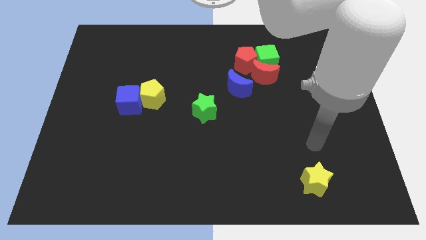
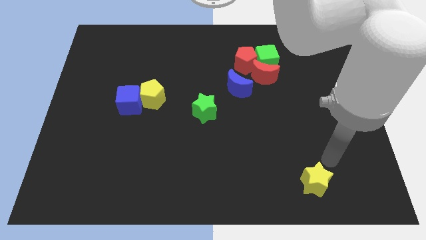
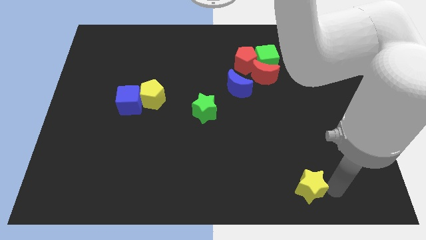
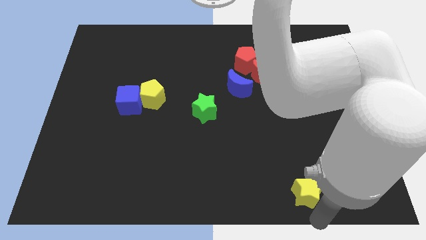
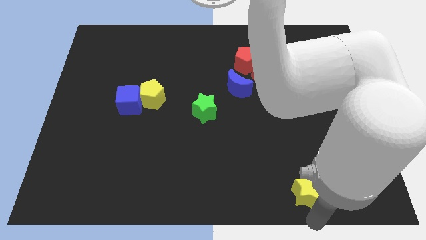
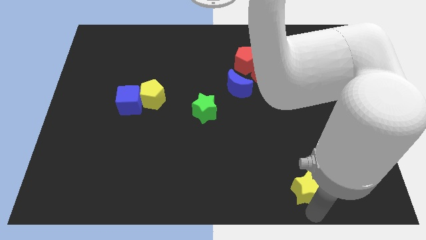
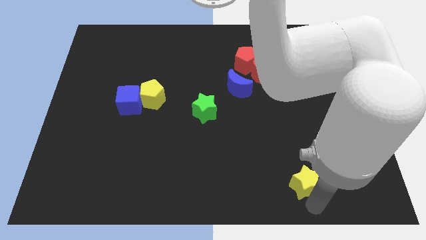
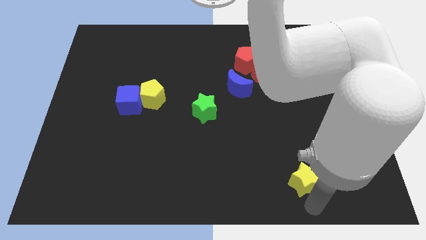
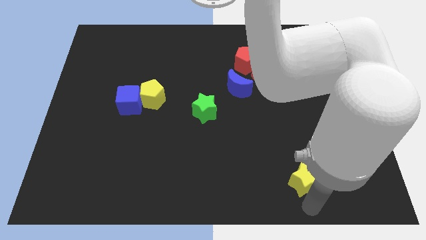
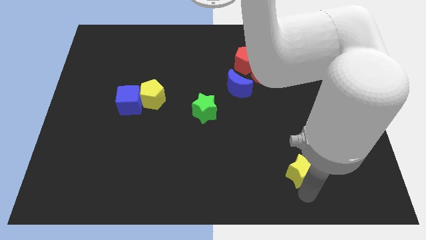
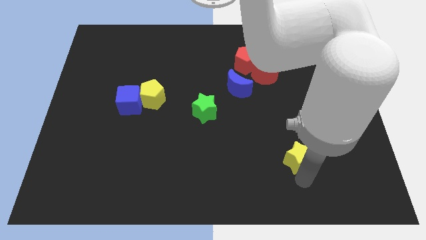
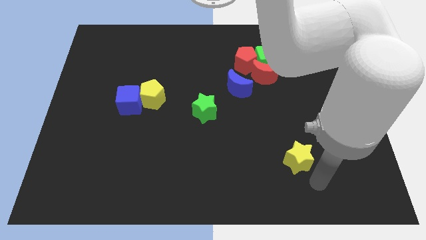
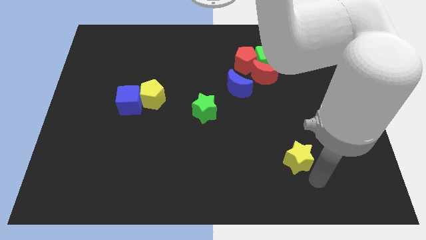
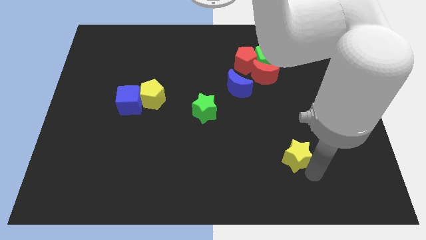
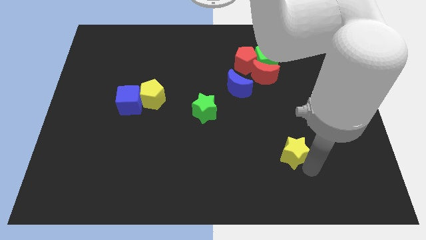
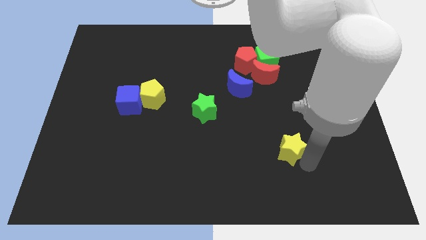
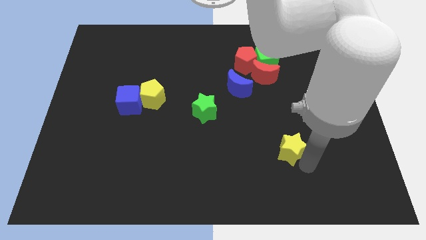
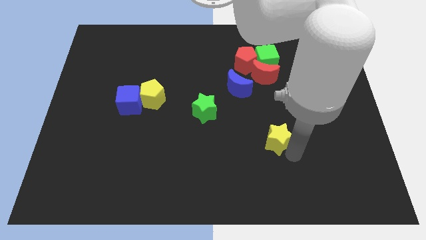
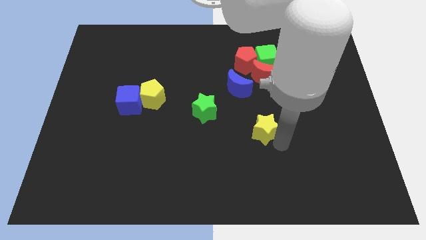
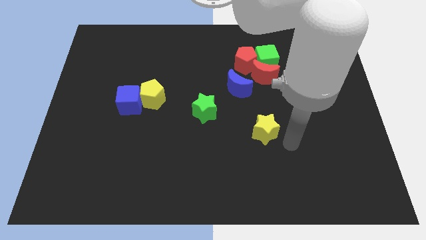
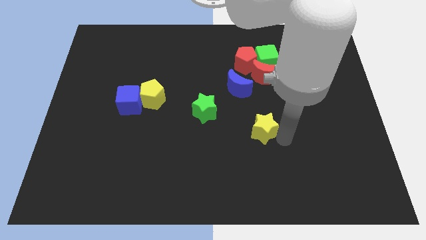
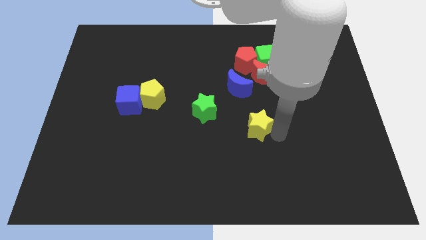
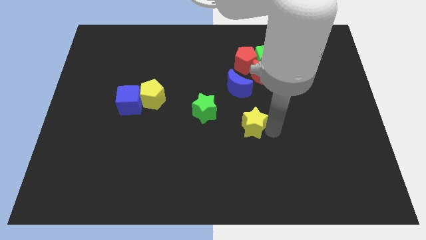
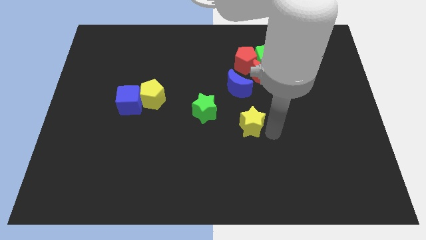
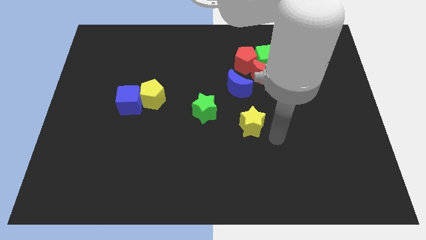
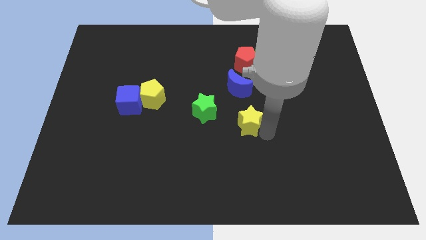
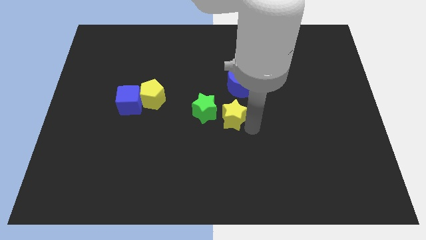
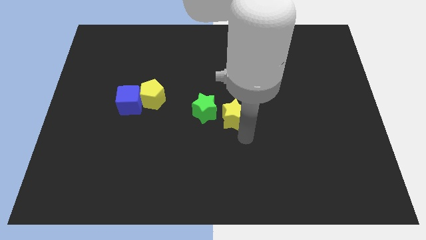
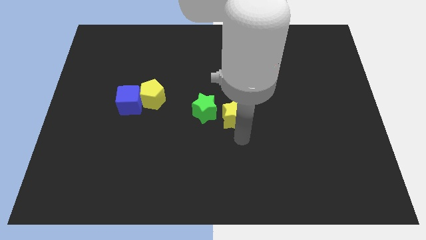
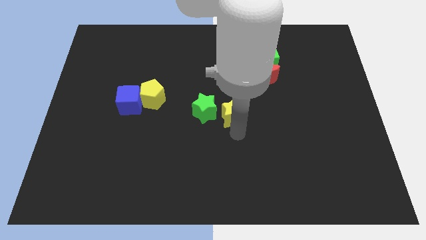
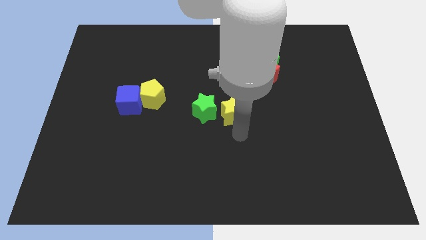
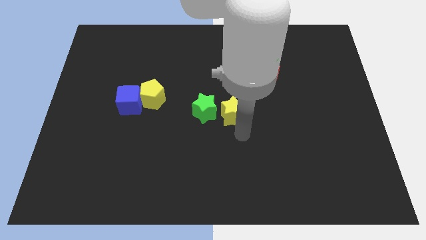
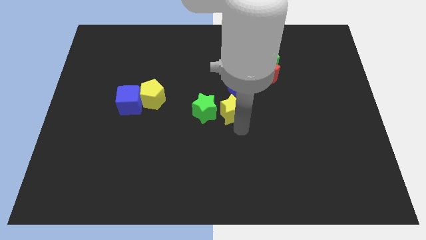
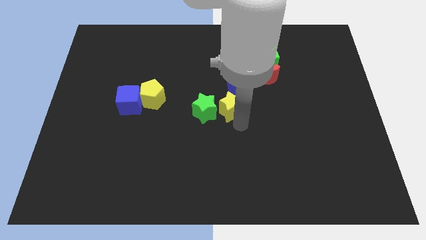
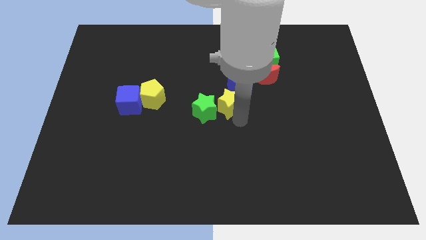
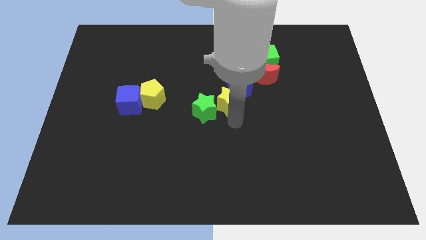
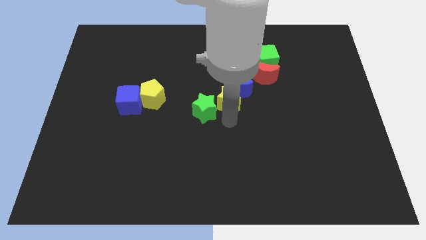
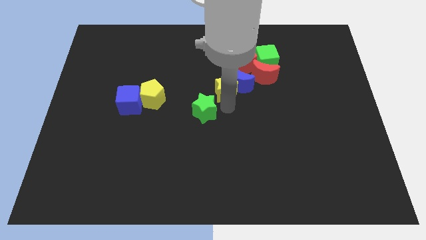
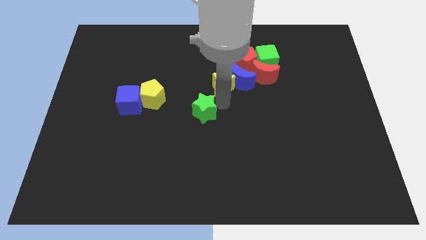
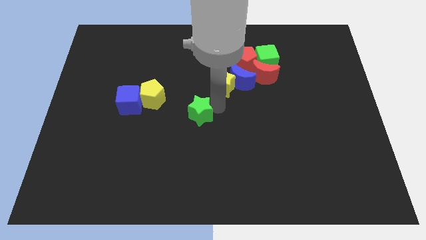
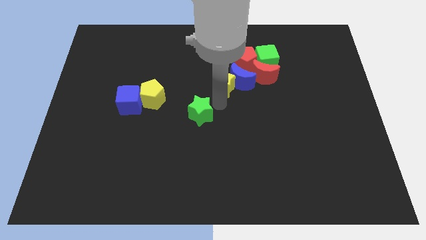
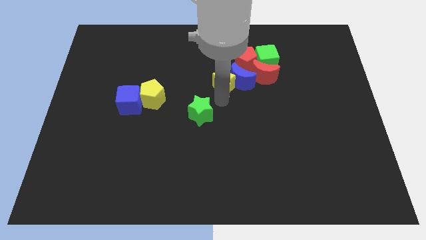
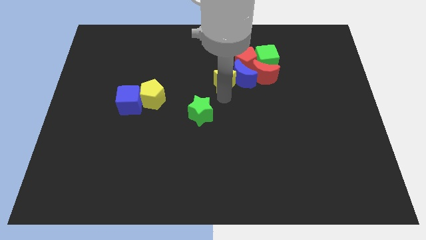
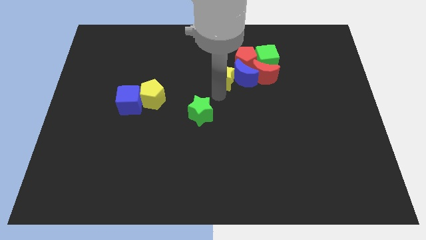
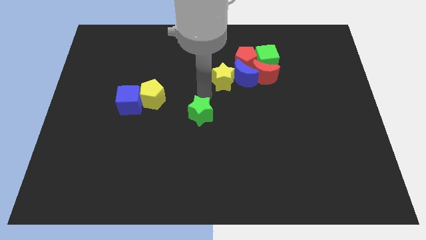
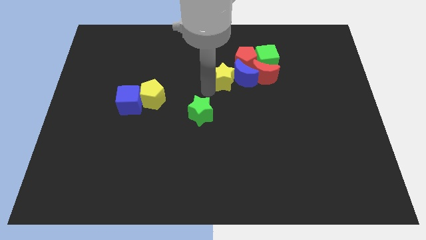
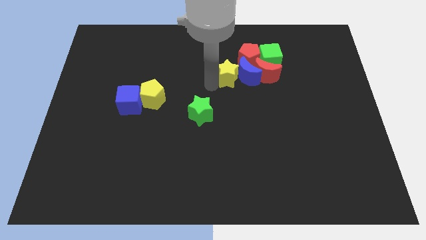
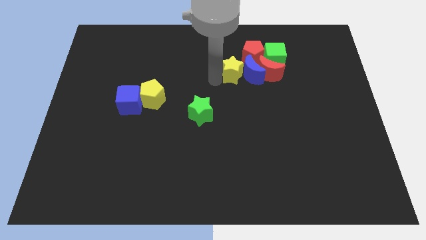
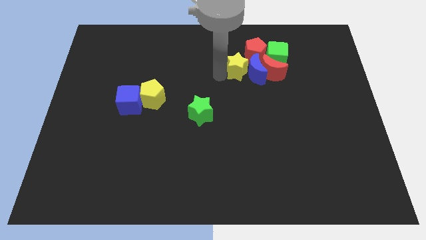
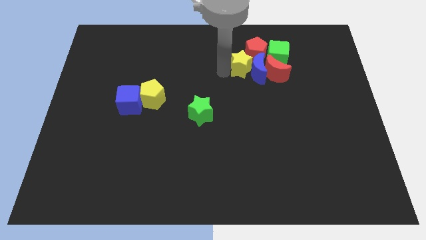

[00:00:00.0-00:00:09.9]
slide the yellow star close to the red pentagon
